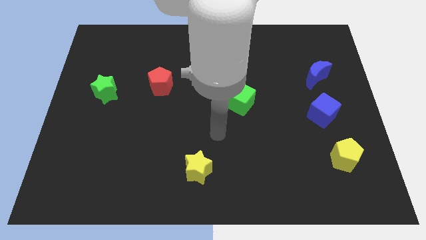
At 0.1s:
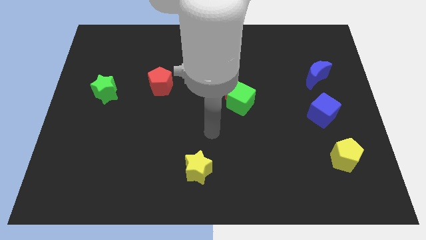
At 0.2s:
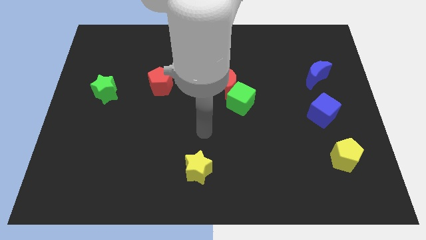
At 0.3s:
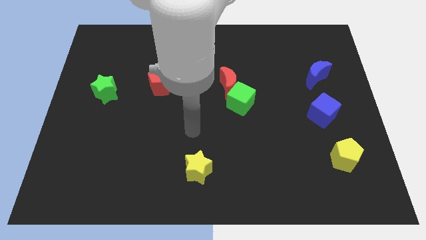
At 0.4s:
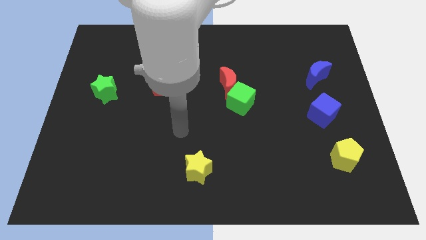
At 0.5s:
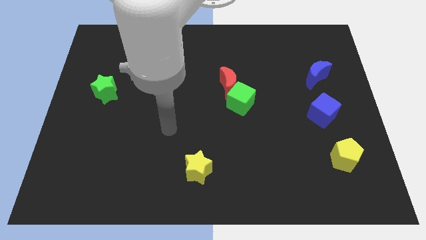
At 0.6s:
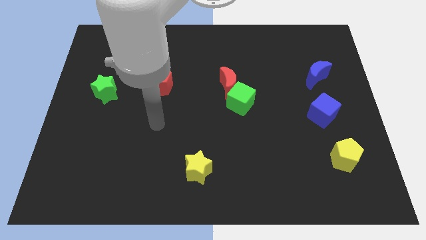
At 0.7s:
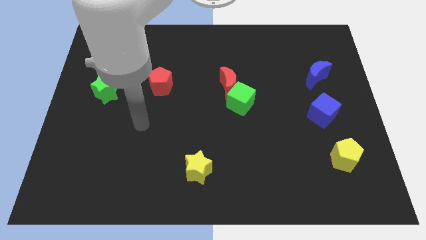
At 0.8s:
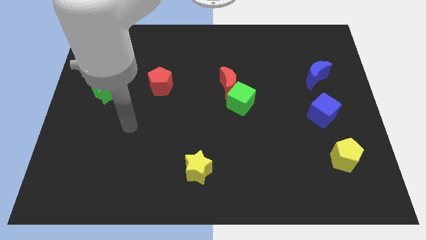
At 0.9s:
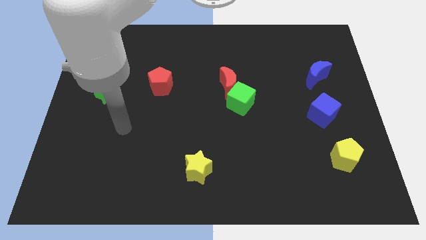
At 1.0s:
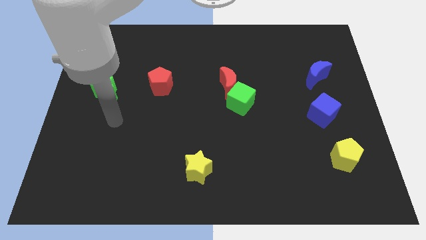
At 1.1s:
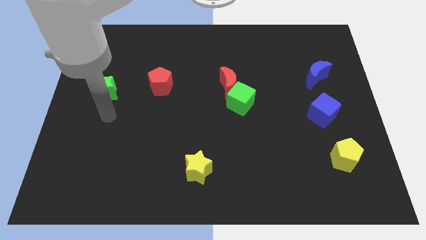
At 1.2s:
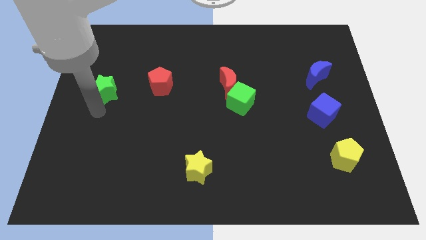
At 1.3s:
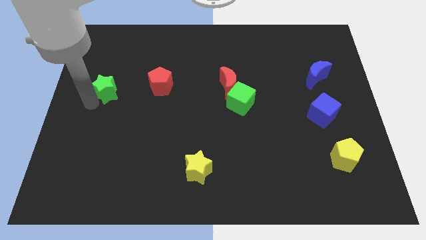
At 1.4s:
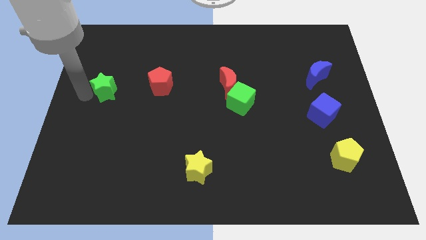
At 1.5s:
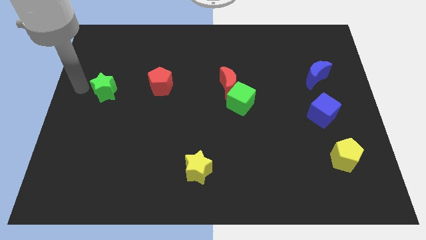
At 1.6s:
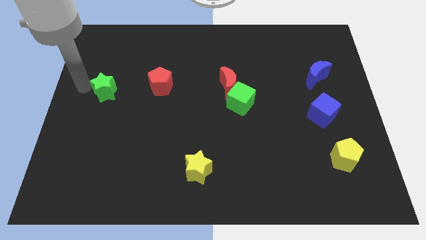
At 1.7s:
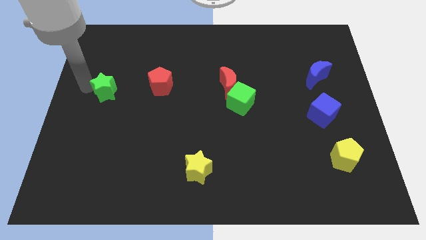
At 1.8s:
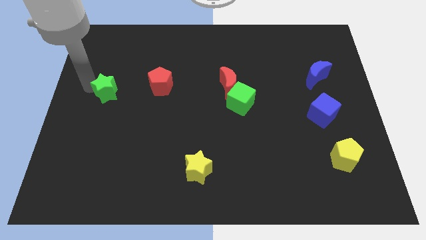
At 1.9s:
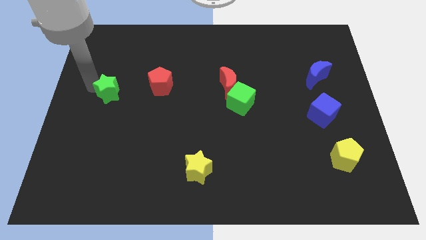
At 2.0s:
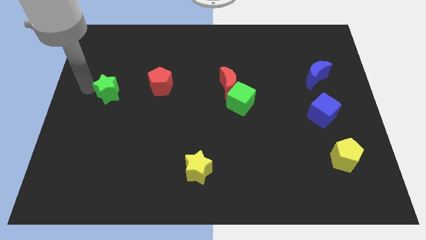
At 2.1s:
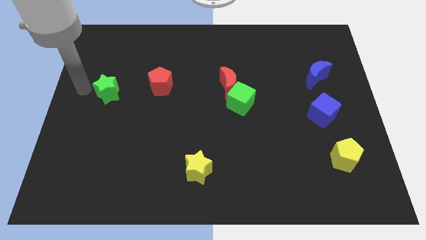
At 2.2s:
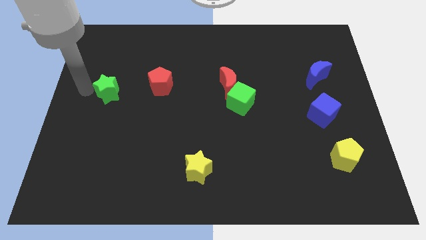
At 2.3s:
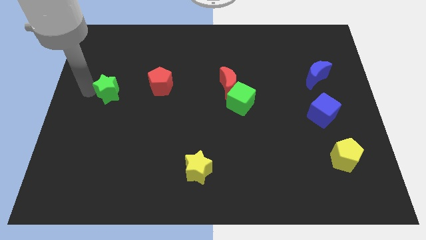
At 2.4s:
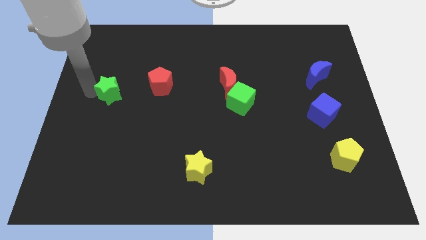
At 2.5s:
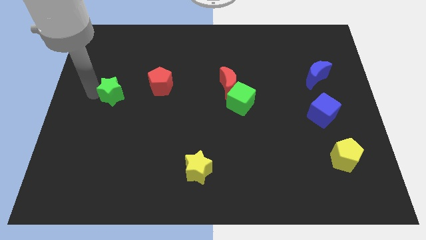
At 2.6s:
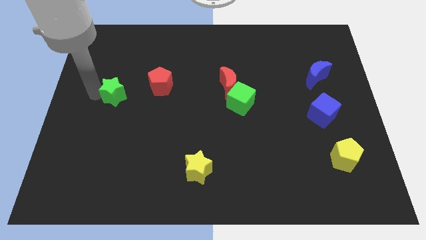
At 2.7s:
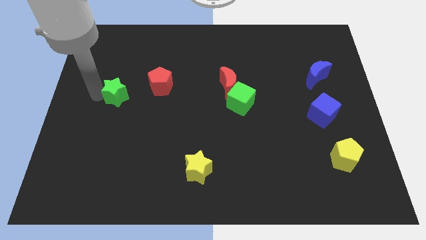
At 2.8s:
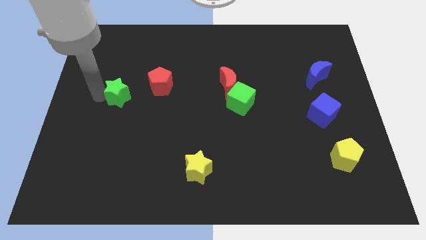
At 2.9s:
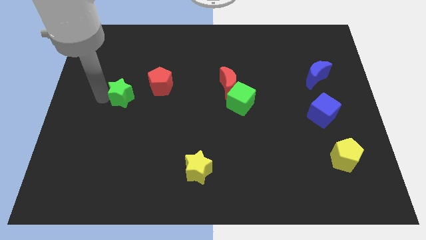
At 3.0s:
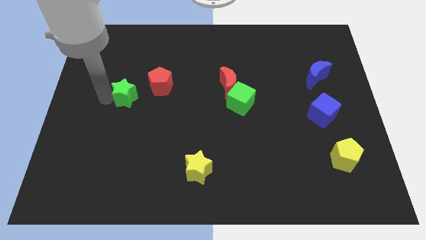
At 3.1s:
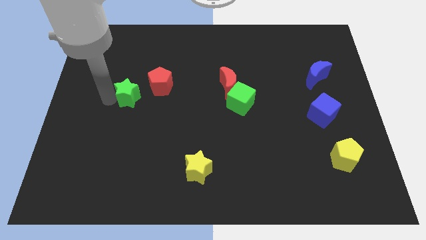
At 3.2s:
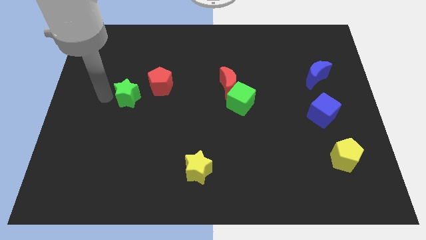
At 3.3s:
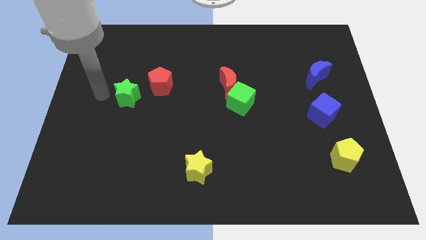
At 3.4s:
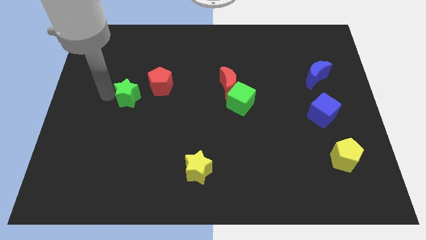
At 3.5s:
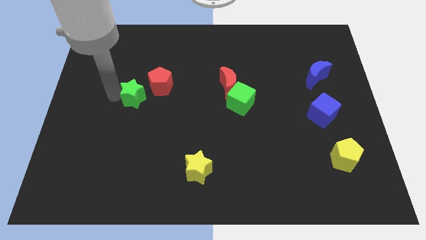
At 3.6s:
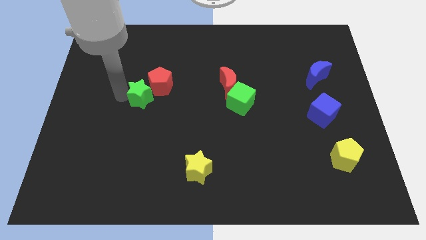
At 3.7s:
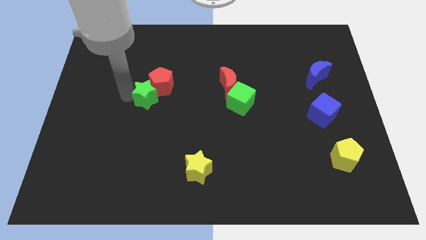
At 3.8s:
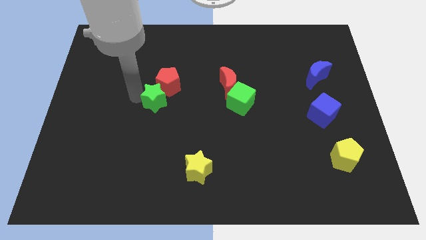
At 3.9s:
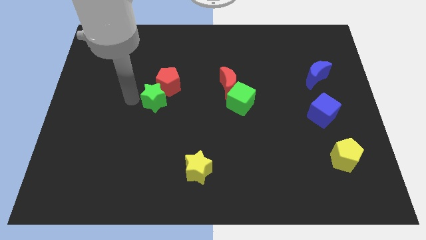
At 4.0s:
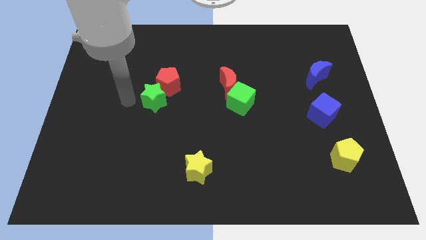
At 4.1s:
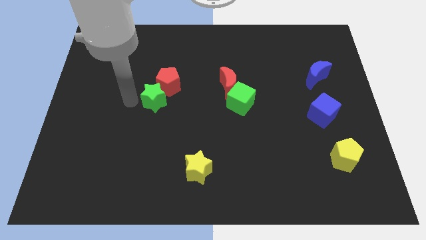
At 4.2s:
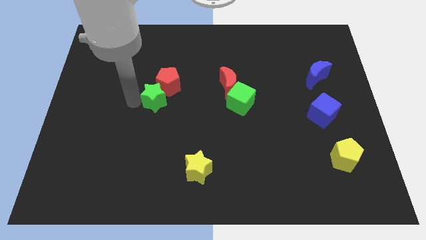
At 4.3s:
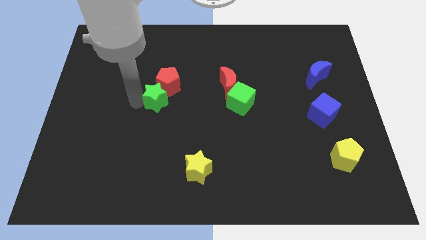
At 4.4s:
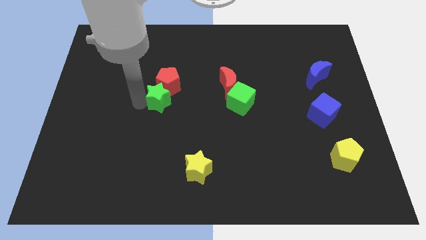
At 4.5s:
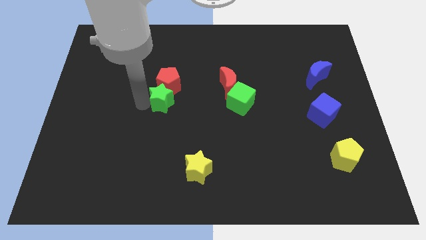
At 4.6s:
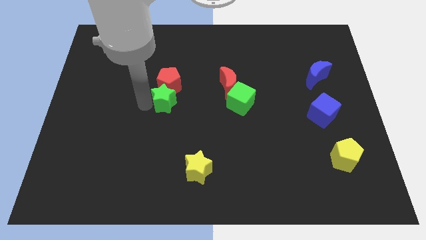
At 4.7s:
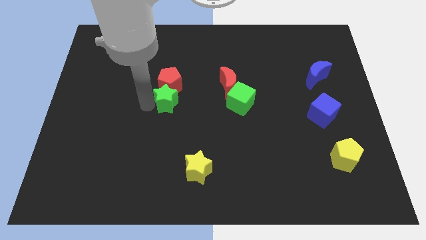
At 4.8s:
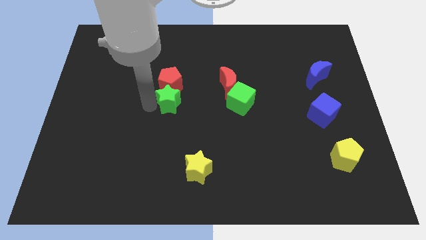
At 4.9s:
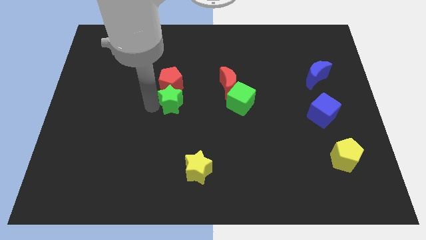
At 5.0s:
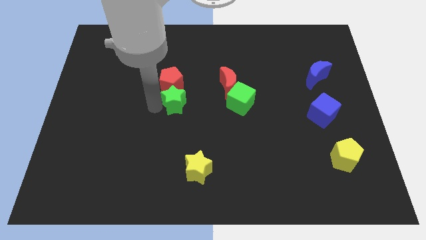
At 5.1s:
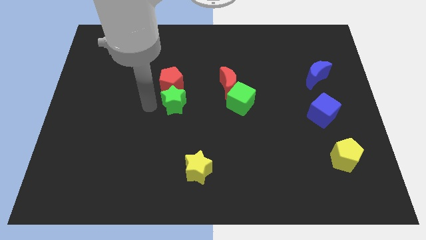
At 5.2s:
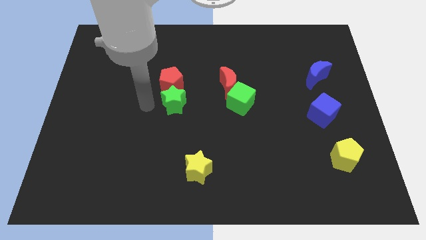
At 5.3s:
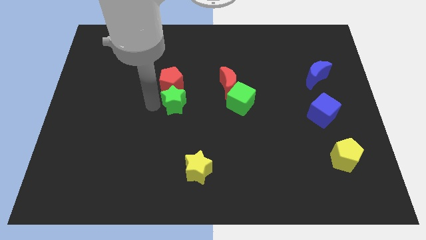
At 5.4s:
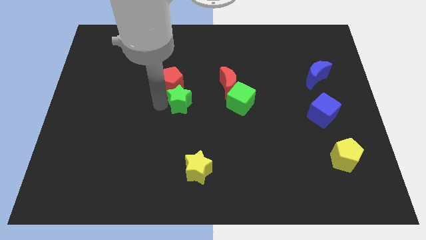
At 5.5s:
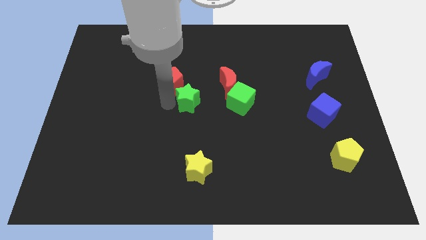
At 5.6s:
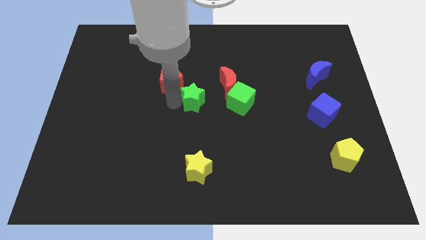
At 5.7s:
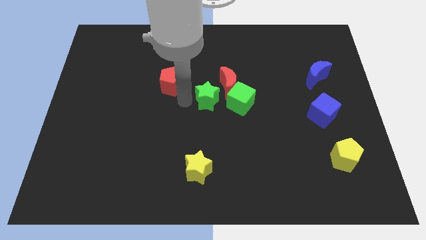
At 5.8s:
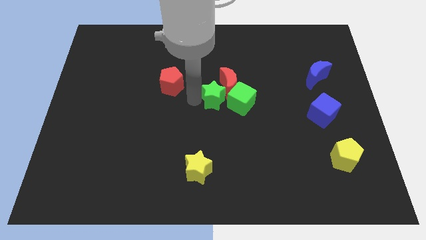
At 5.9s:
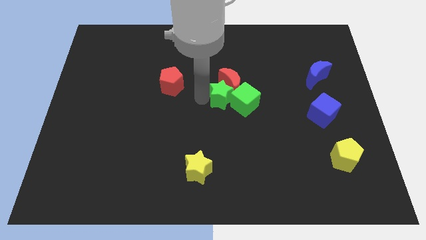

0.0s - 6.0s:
move the green star next to the green cube

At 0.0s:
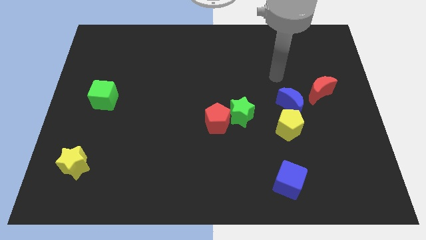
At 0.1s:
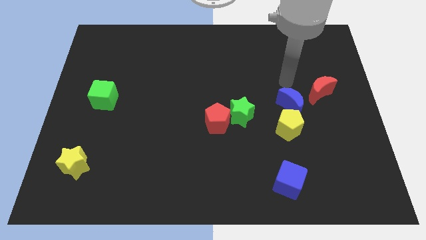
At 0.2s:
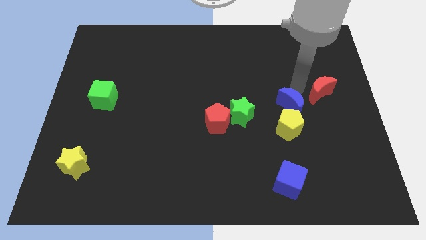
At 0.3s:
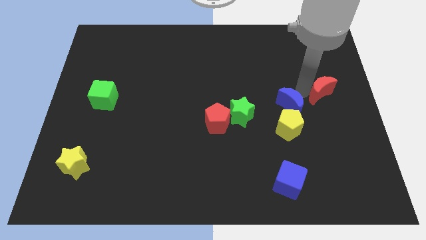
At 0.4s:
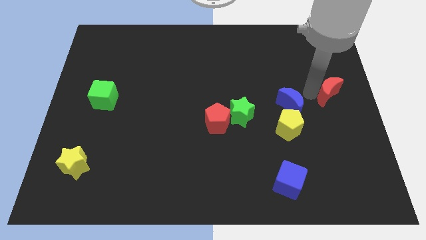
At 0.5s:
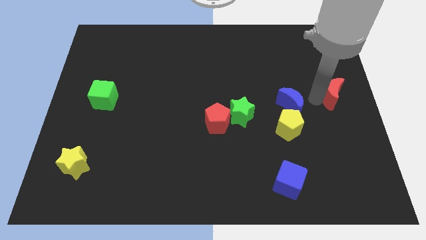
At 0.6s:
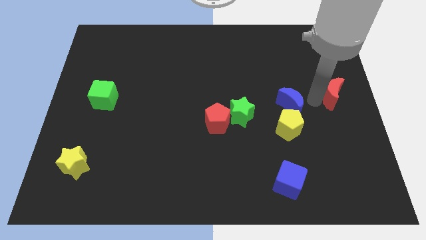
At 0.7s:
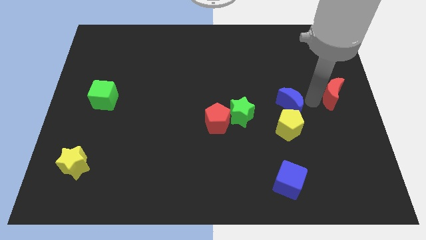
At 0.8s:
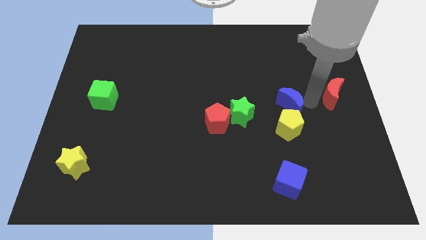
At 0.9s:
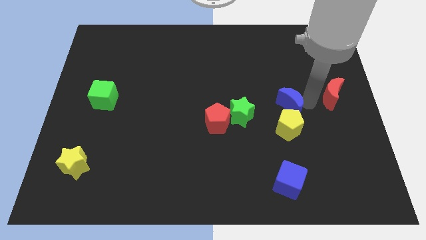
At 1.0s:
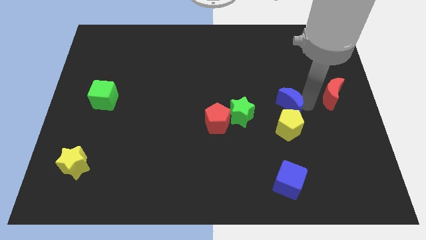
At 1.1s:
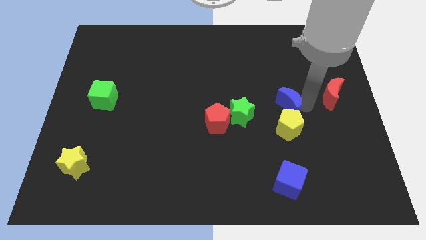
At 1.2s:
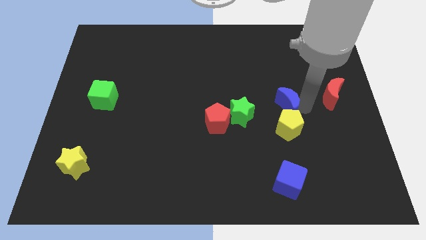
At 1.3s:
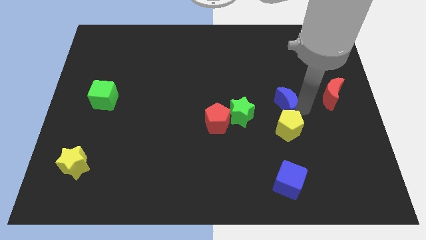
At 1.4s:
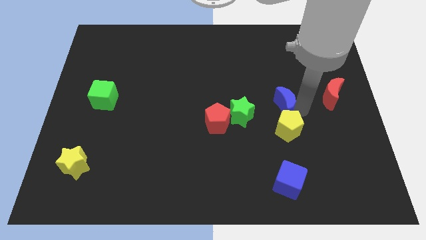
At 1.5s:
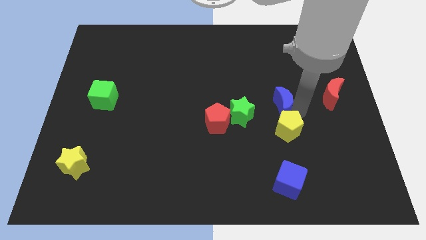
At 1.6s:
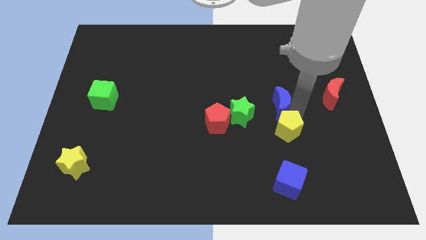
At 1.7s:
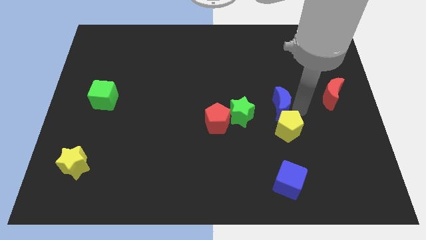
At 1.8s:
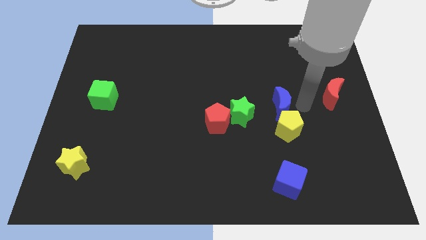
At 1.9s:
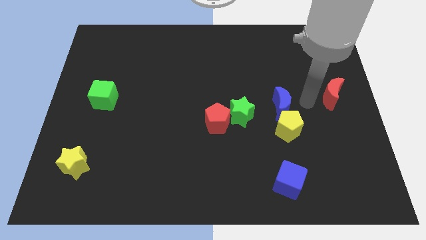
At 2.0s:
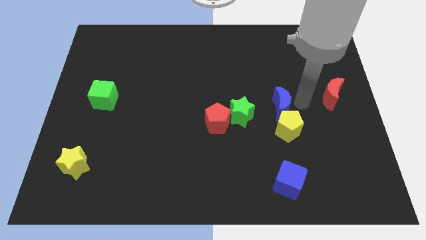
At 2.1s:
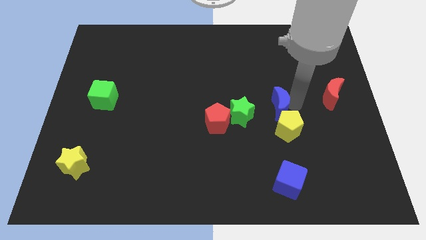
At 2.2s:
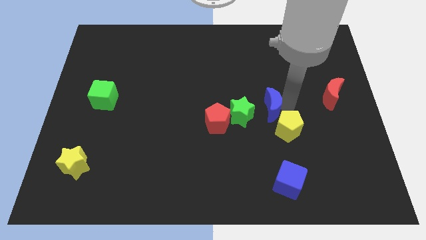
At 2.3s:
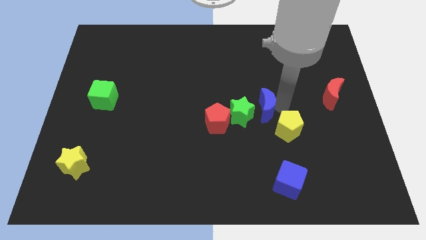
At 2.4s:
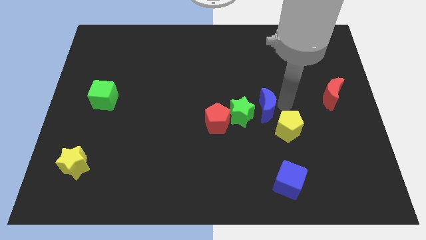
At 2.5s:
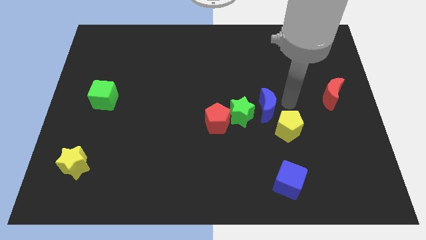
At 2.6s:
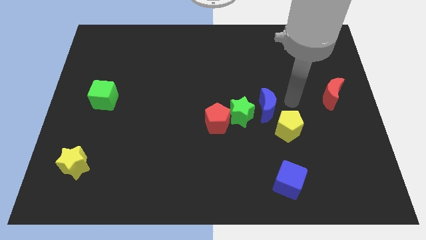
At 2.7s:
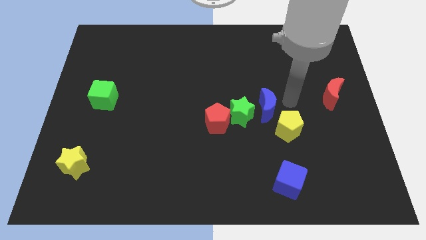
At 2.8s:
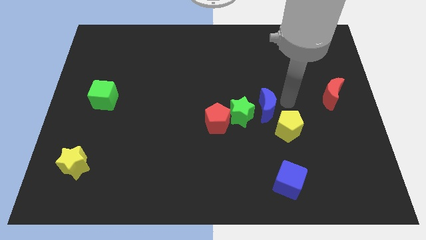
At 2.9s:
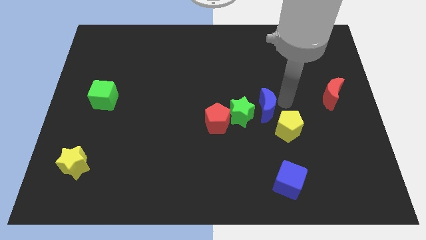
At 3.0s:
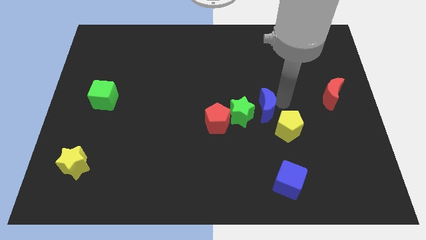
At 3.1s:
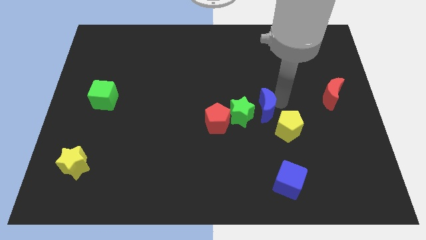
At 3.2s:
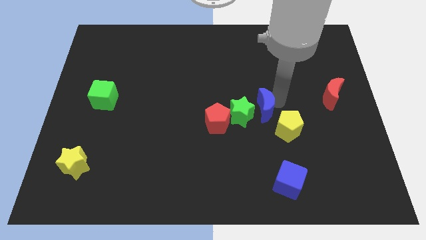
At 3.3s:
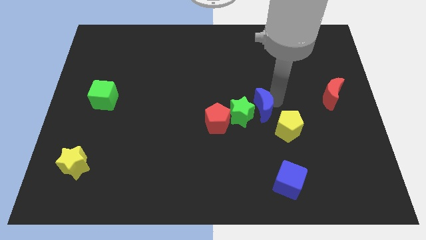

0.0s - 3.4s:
move the blue moon towards the green star
